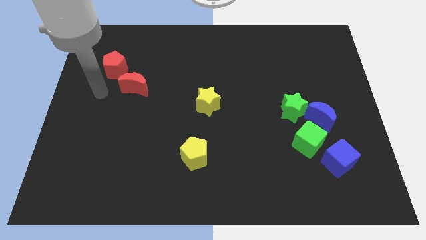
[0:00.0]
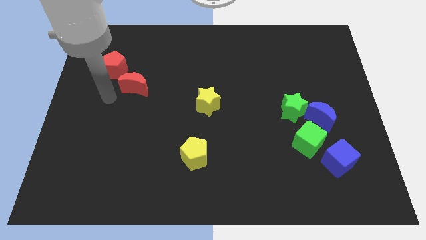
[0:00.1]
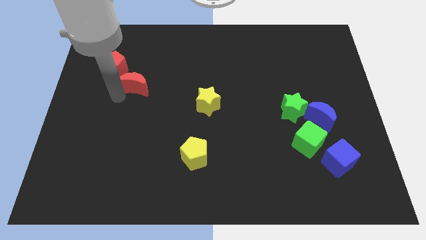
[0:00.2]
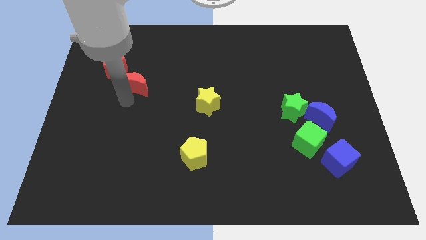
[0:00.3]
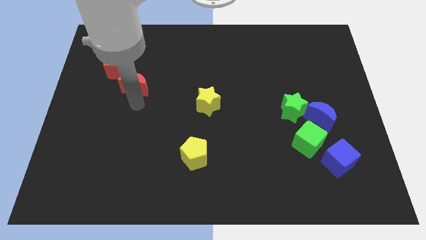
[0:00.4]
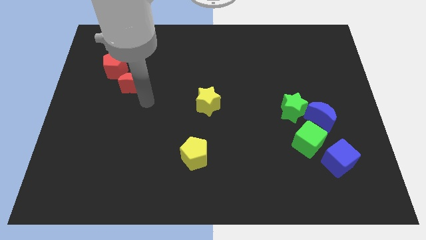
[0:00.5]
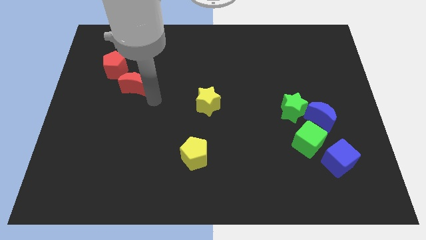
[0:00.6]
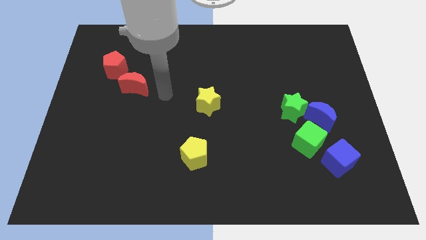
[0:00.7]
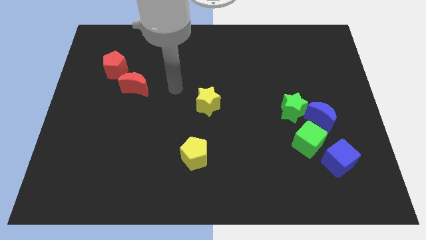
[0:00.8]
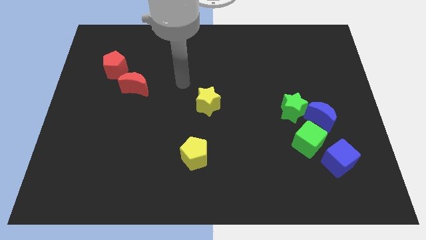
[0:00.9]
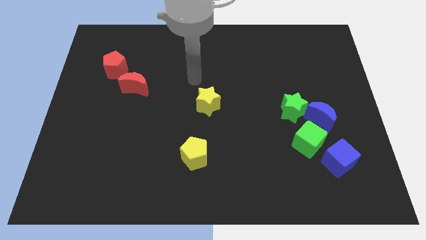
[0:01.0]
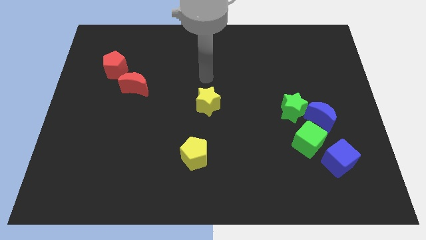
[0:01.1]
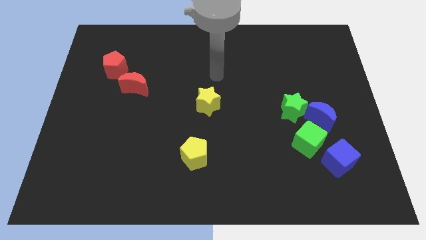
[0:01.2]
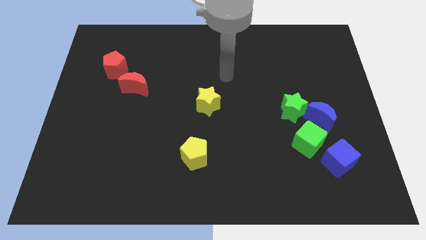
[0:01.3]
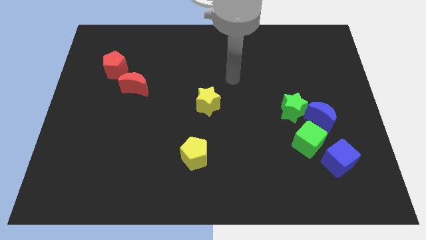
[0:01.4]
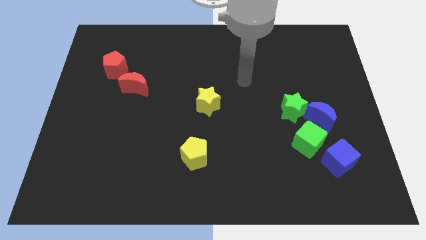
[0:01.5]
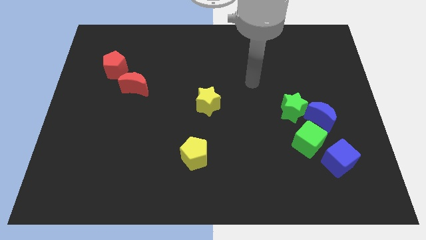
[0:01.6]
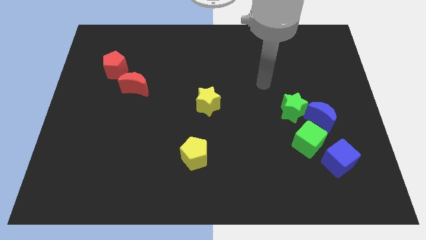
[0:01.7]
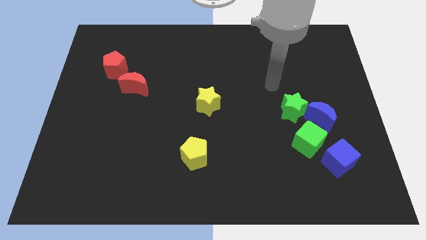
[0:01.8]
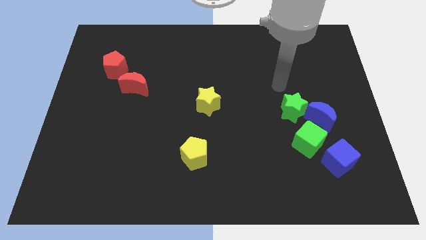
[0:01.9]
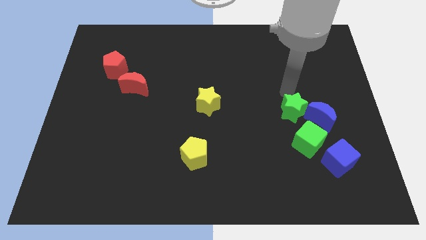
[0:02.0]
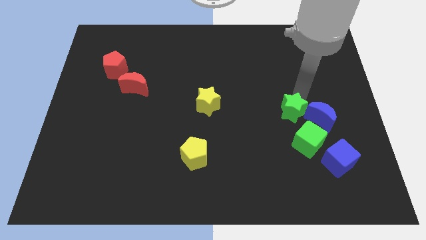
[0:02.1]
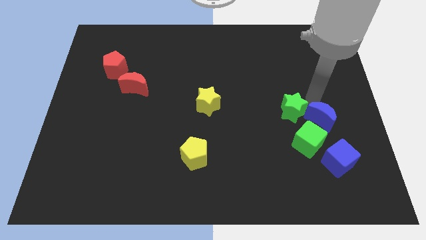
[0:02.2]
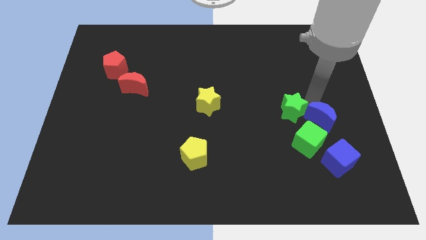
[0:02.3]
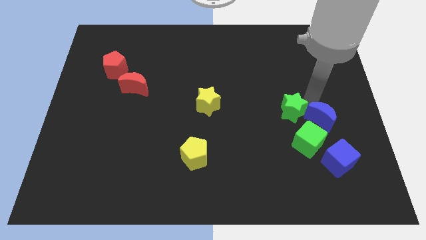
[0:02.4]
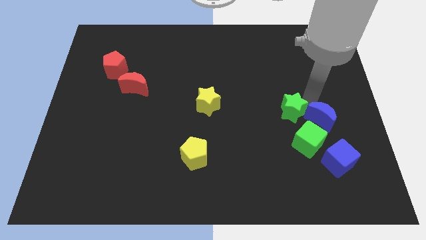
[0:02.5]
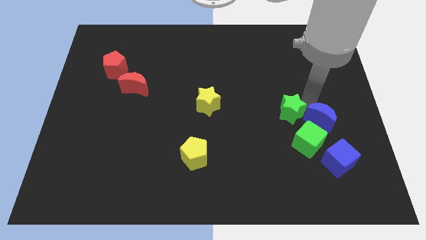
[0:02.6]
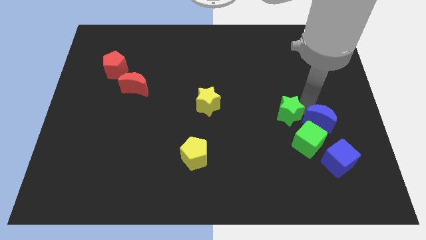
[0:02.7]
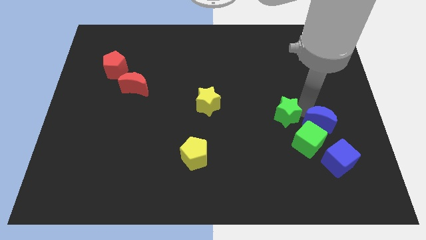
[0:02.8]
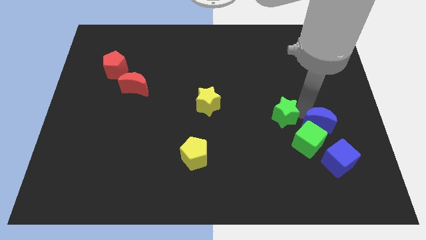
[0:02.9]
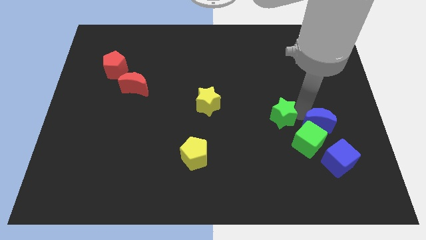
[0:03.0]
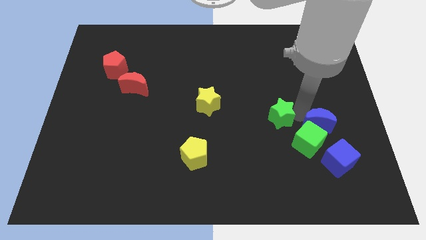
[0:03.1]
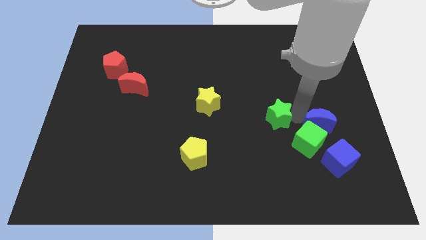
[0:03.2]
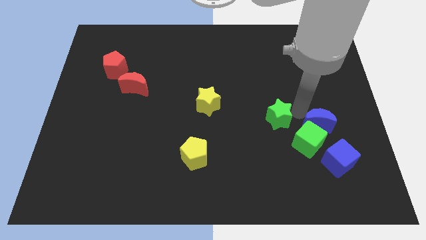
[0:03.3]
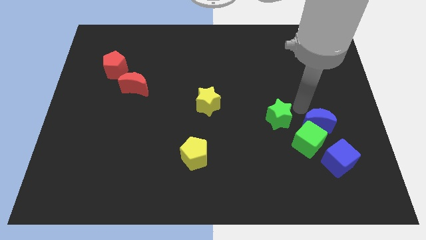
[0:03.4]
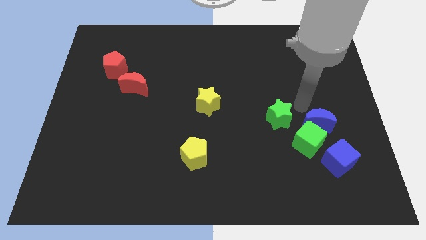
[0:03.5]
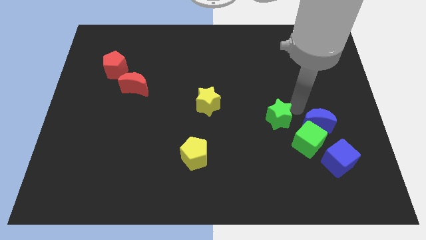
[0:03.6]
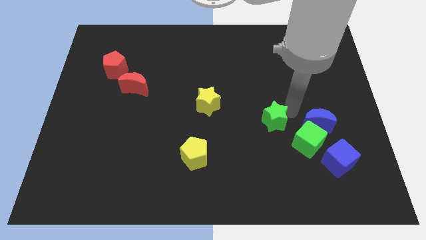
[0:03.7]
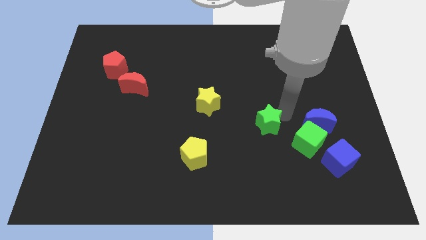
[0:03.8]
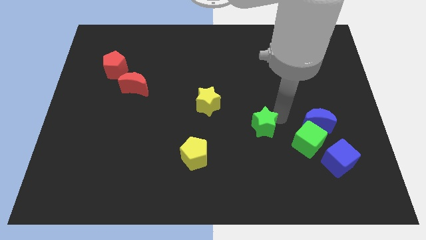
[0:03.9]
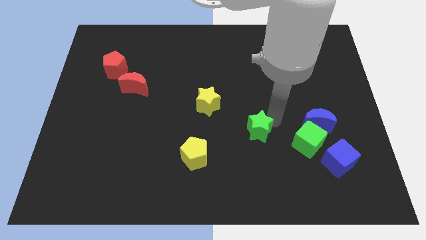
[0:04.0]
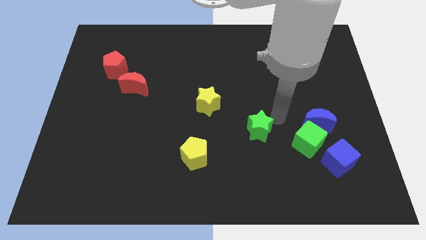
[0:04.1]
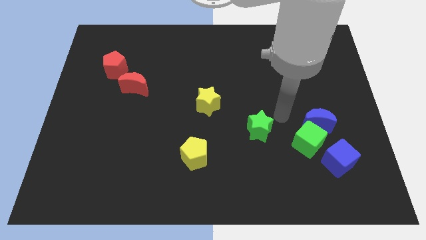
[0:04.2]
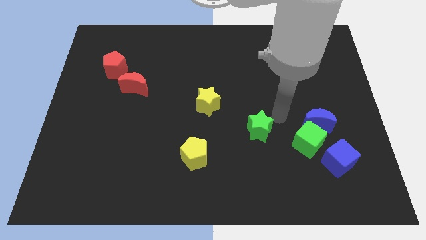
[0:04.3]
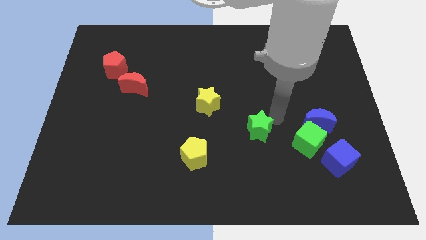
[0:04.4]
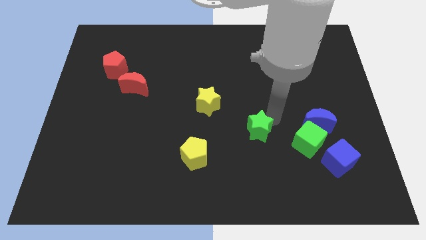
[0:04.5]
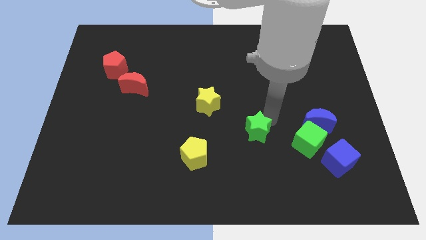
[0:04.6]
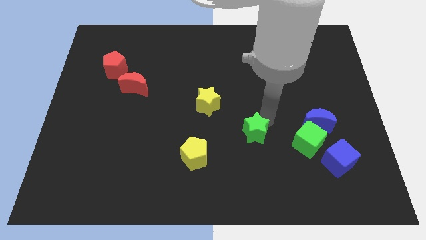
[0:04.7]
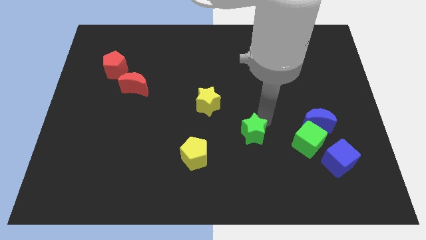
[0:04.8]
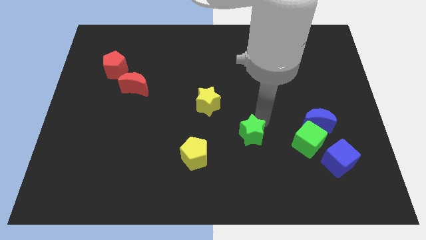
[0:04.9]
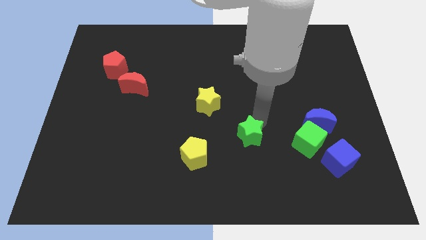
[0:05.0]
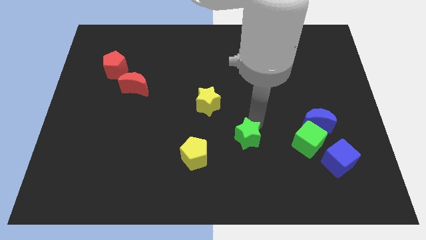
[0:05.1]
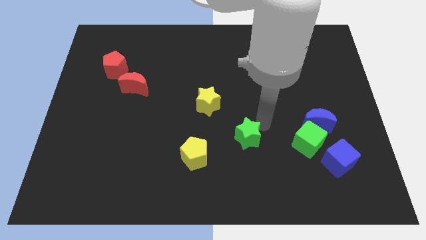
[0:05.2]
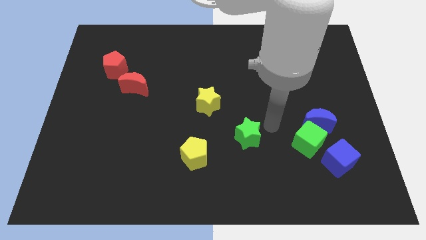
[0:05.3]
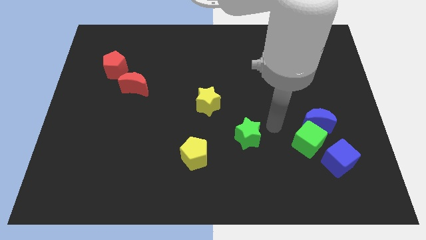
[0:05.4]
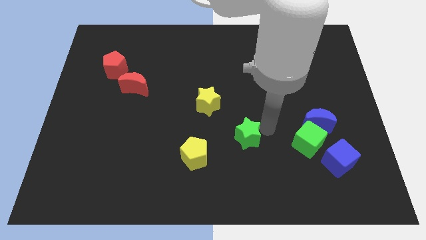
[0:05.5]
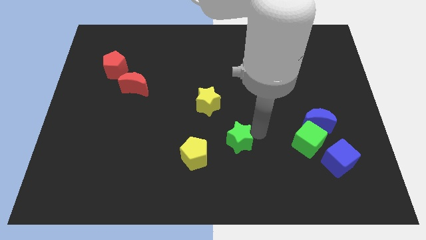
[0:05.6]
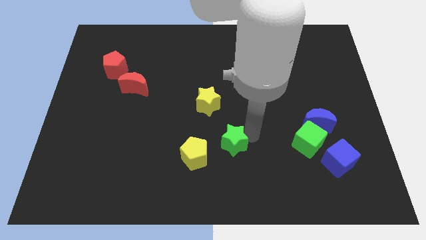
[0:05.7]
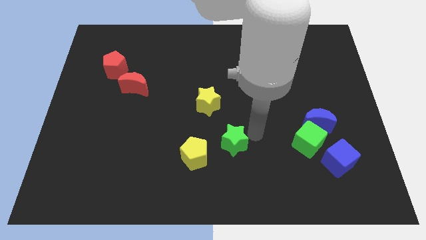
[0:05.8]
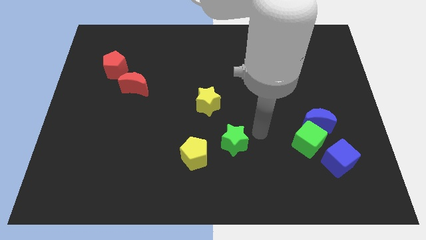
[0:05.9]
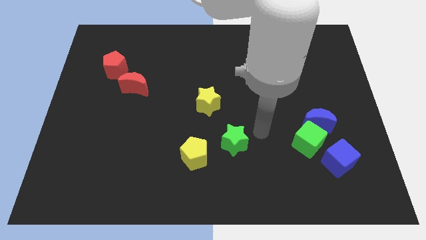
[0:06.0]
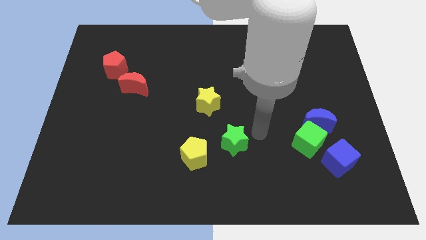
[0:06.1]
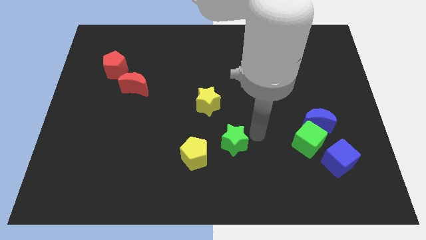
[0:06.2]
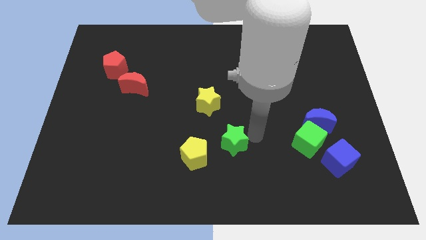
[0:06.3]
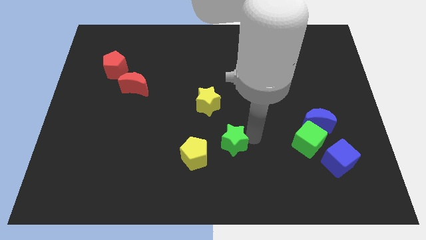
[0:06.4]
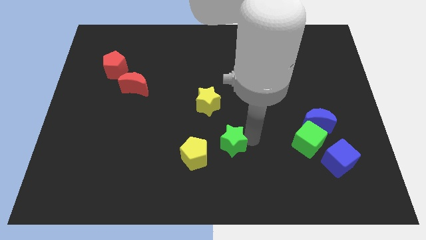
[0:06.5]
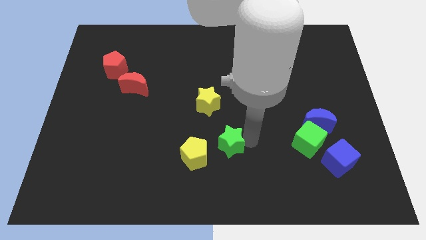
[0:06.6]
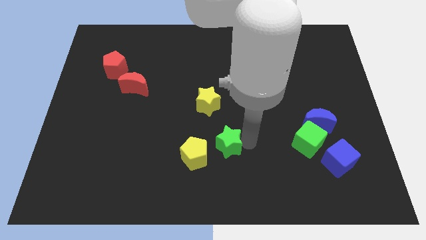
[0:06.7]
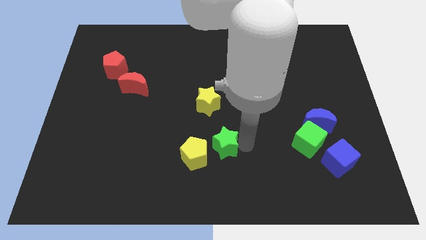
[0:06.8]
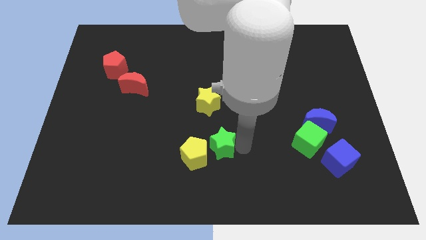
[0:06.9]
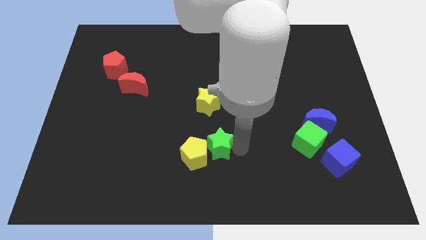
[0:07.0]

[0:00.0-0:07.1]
slide the green star towards the yellow pentagon
